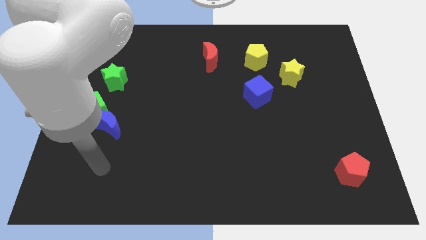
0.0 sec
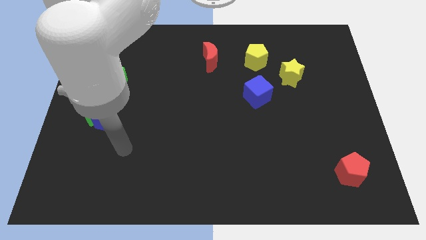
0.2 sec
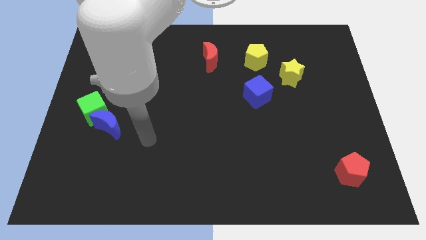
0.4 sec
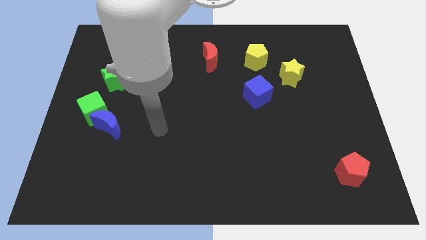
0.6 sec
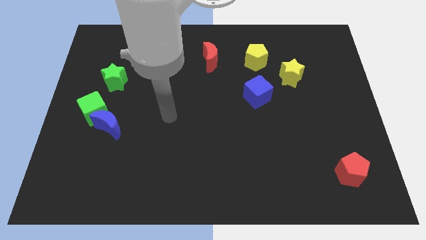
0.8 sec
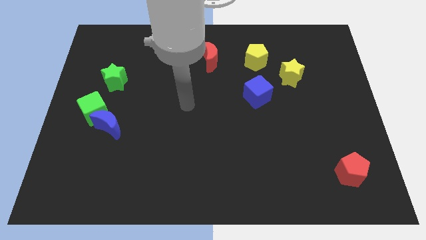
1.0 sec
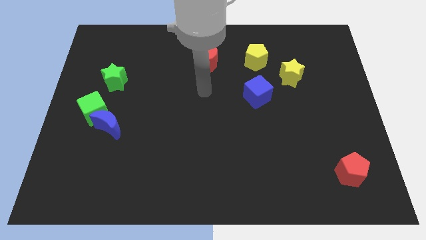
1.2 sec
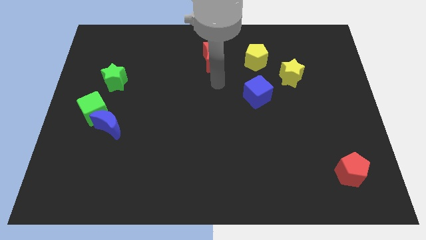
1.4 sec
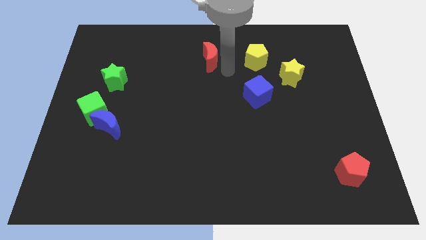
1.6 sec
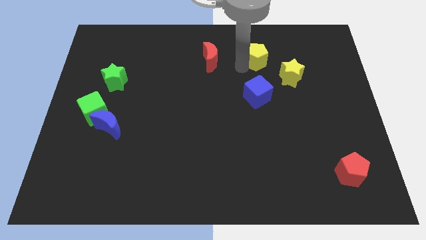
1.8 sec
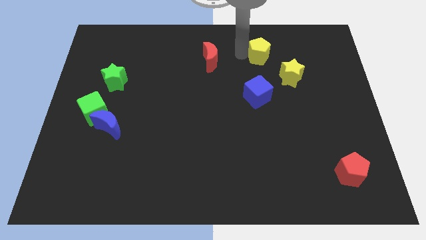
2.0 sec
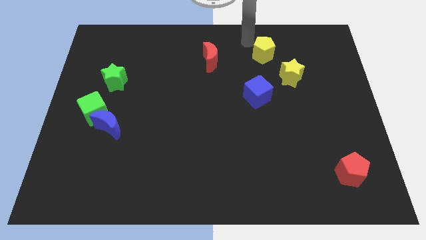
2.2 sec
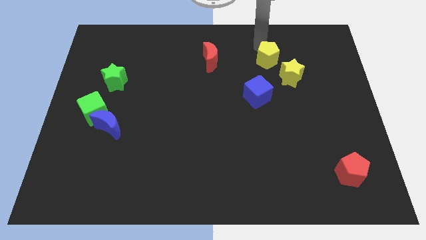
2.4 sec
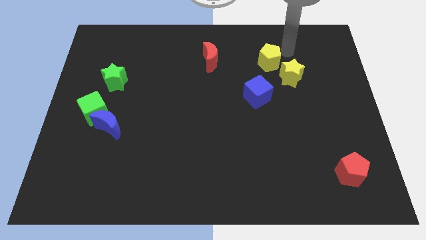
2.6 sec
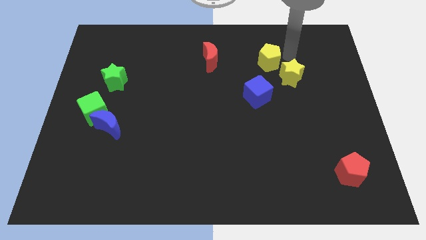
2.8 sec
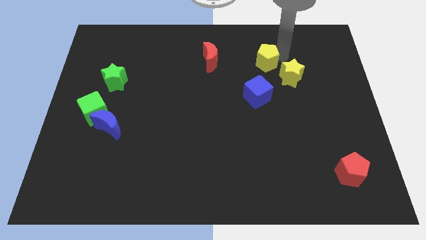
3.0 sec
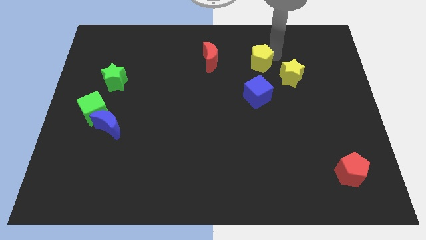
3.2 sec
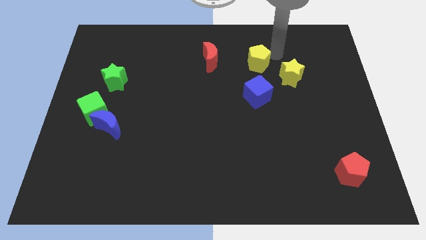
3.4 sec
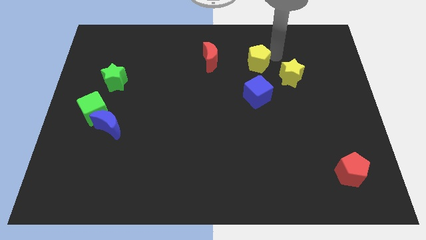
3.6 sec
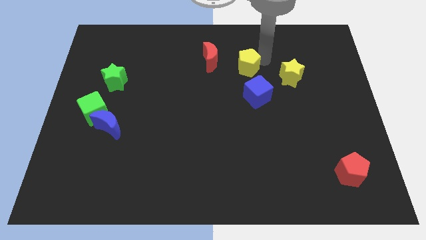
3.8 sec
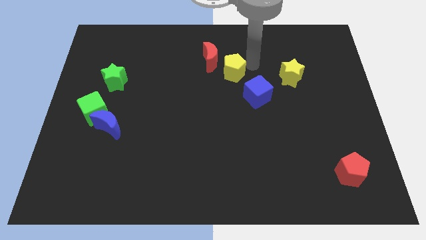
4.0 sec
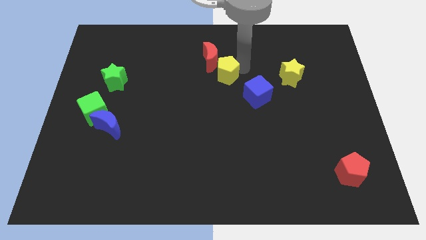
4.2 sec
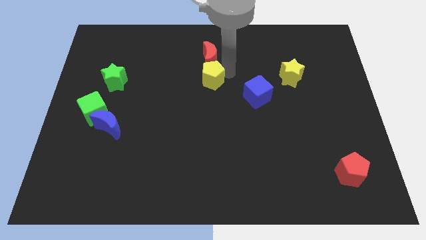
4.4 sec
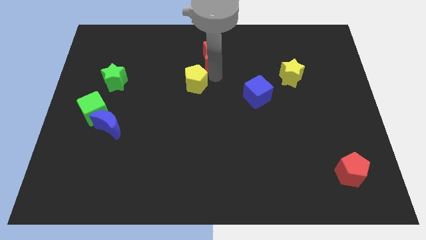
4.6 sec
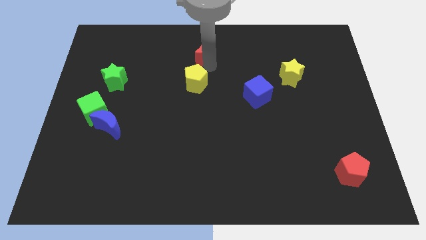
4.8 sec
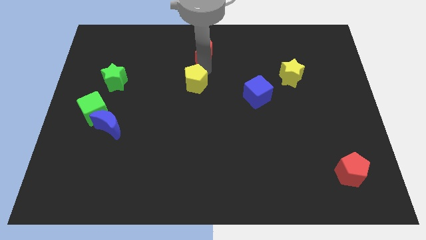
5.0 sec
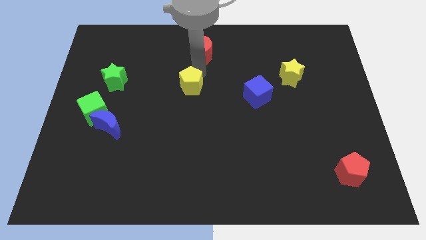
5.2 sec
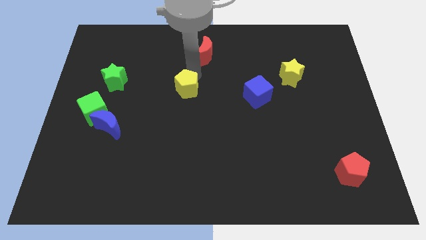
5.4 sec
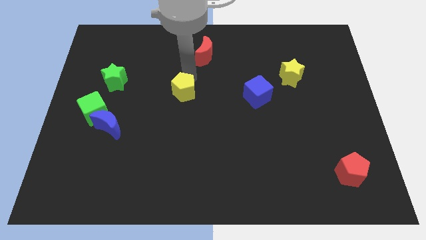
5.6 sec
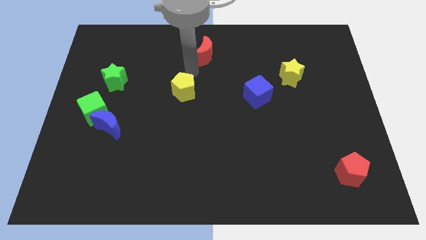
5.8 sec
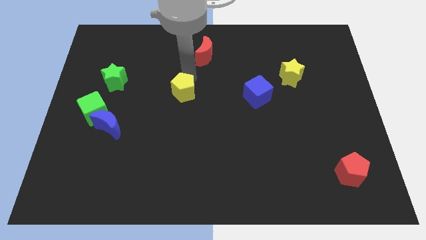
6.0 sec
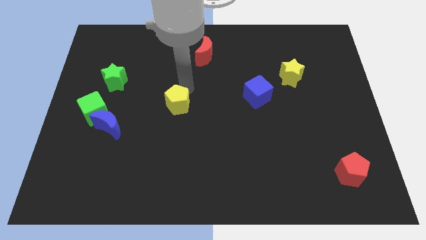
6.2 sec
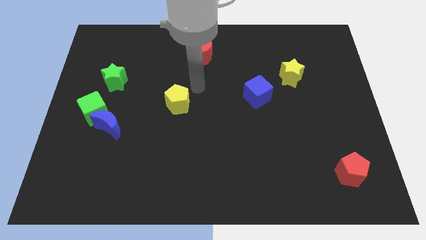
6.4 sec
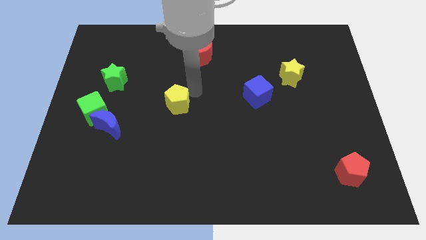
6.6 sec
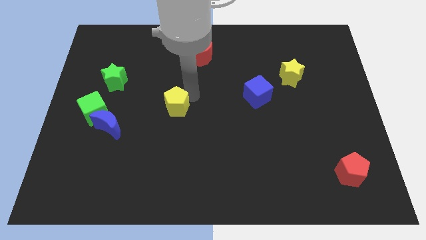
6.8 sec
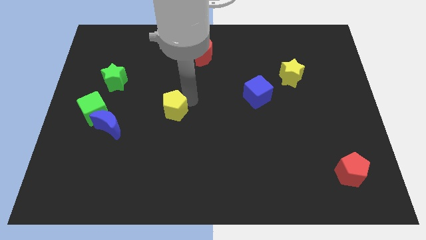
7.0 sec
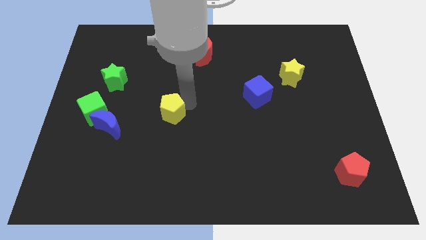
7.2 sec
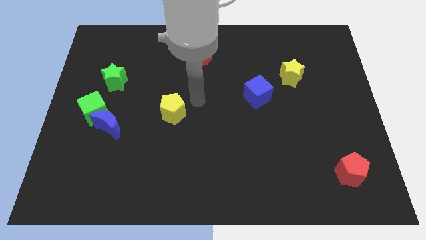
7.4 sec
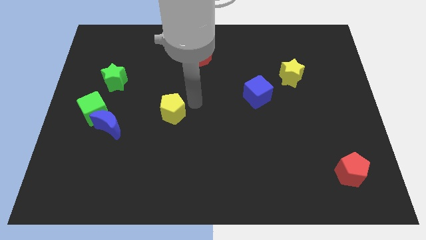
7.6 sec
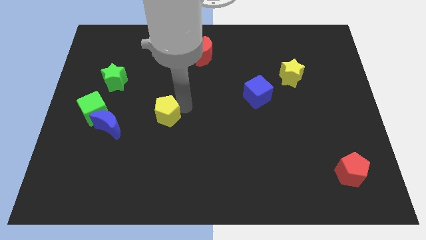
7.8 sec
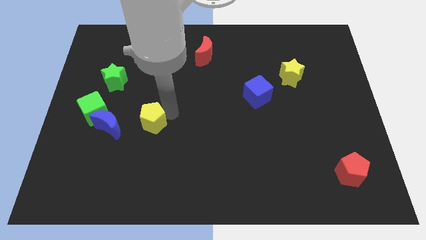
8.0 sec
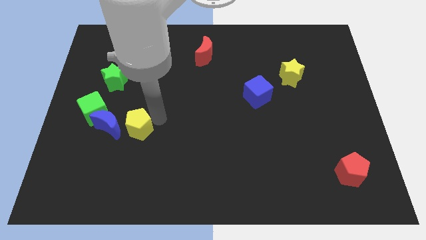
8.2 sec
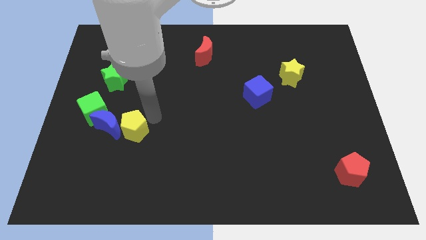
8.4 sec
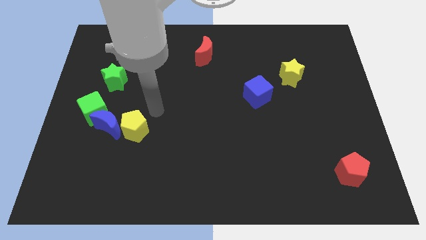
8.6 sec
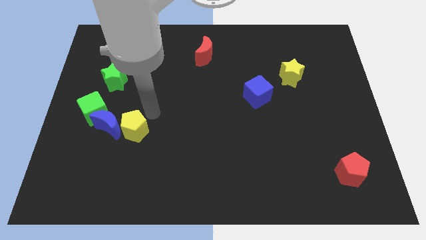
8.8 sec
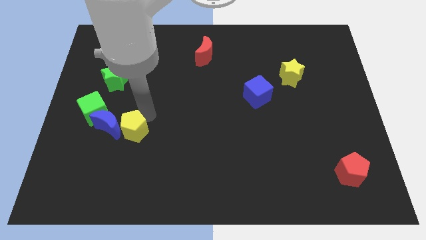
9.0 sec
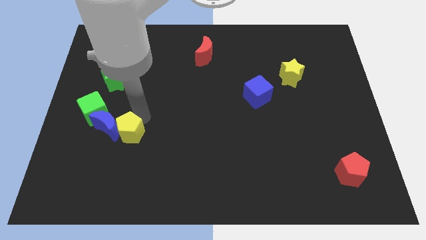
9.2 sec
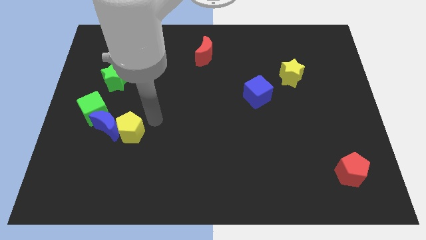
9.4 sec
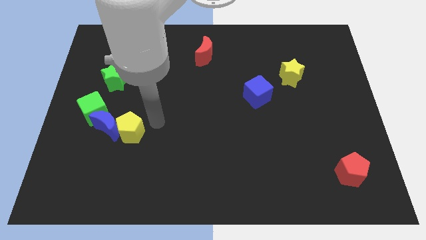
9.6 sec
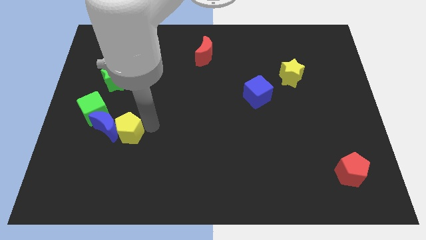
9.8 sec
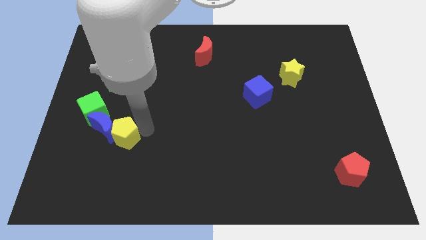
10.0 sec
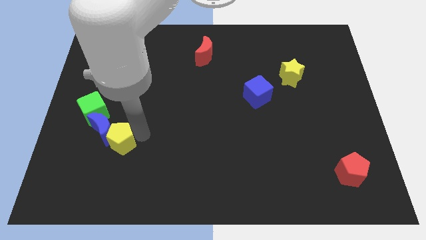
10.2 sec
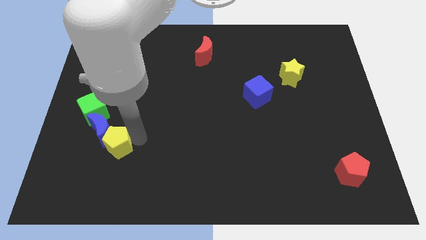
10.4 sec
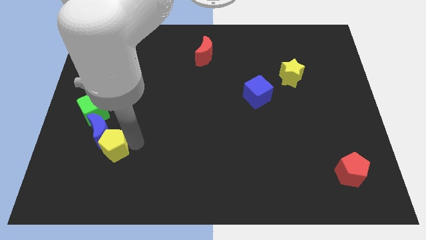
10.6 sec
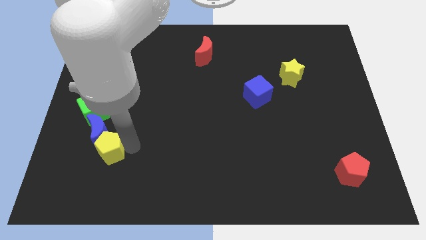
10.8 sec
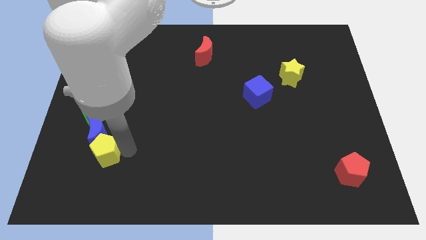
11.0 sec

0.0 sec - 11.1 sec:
put the yellow pentagon to the bottom side of the green cube

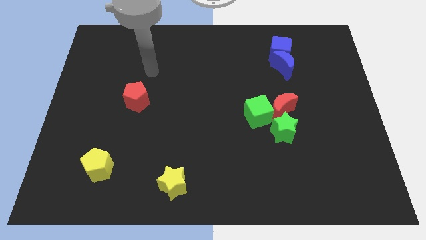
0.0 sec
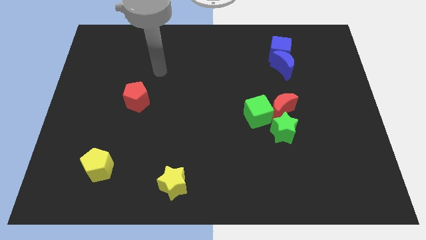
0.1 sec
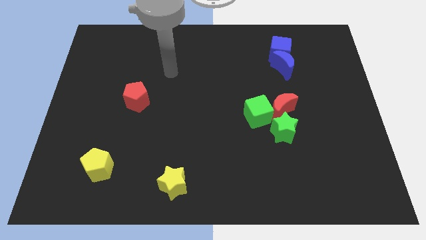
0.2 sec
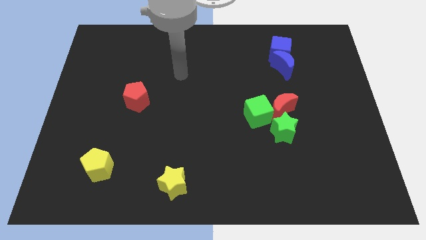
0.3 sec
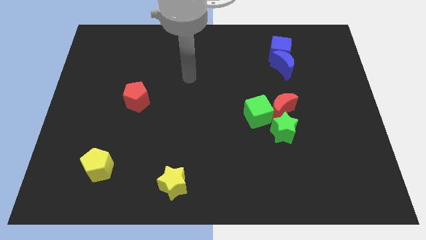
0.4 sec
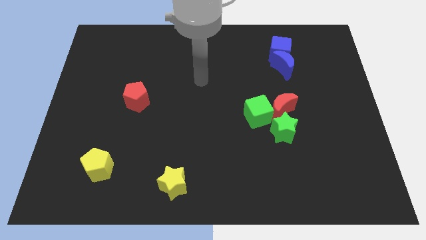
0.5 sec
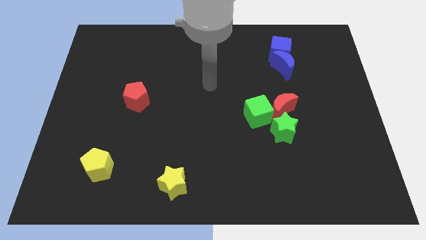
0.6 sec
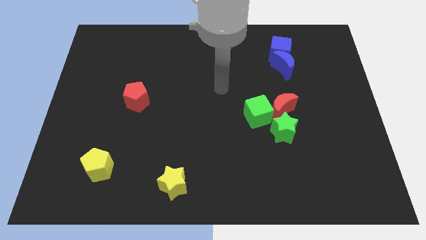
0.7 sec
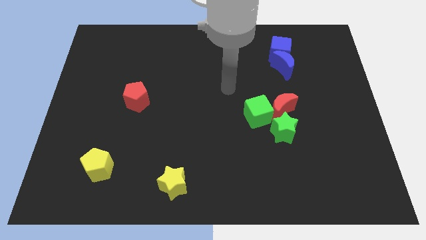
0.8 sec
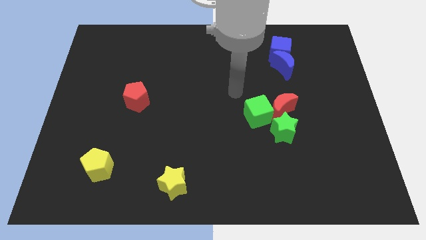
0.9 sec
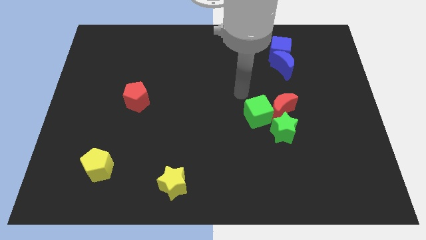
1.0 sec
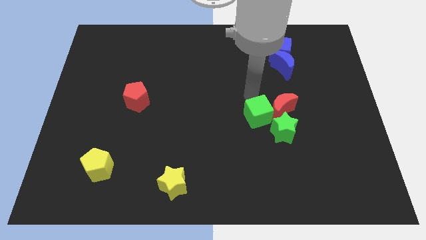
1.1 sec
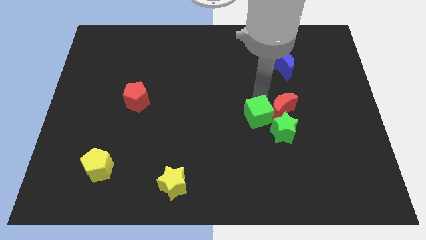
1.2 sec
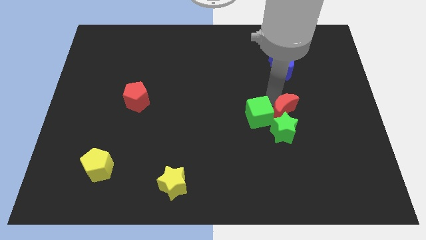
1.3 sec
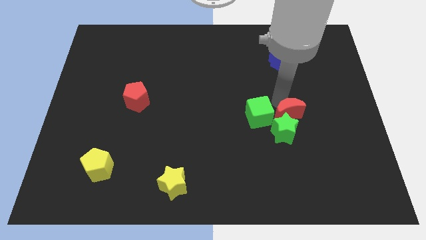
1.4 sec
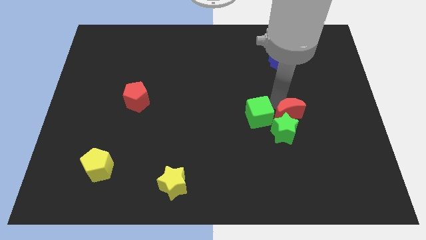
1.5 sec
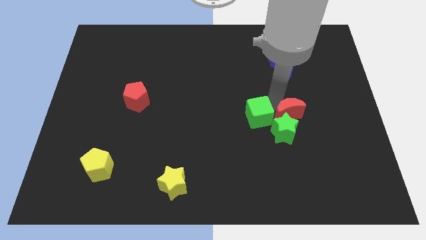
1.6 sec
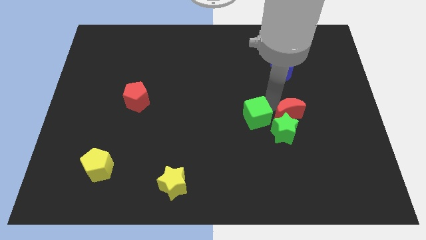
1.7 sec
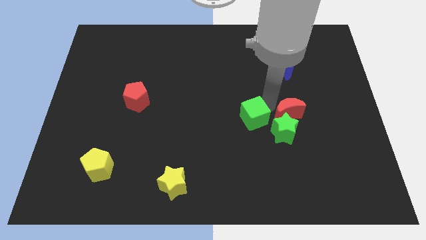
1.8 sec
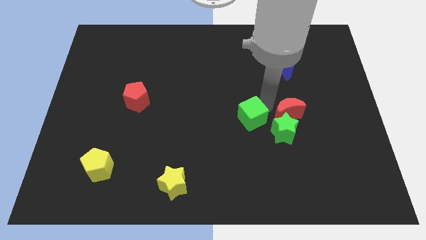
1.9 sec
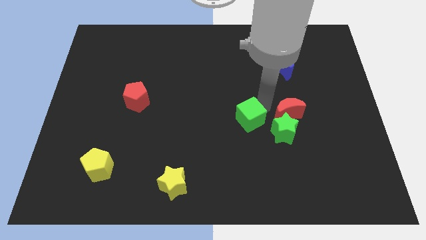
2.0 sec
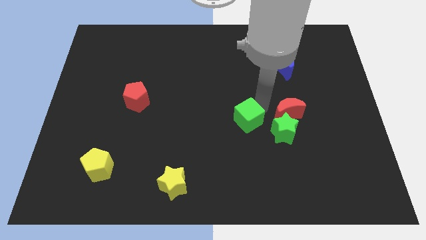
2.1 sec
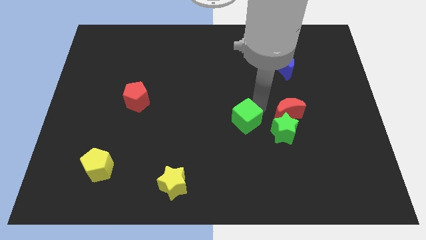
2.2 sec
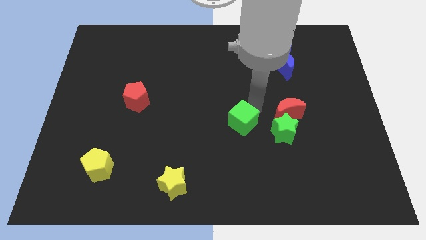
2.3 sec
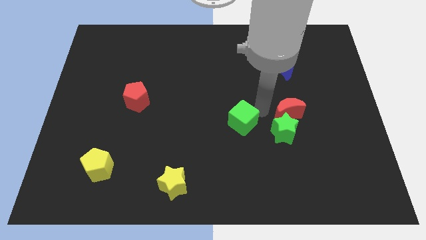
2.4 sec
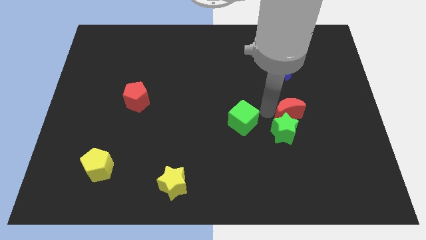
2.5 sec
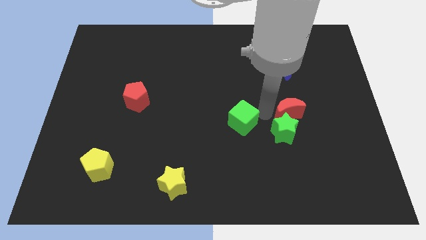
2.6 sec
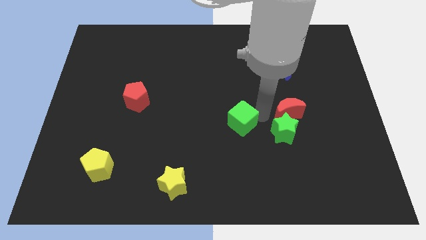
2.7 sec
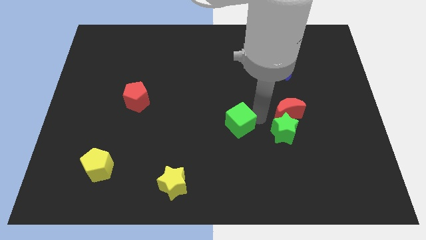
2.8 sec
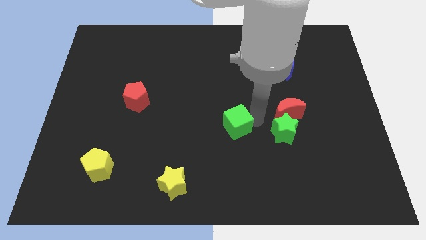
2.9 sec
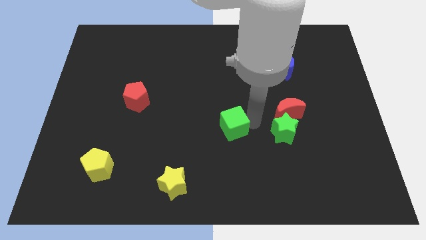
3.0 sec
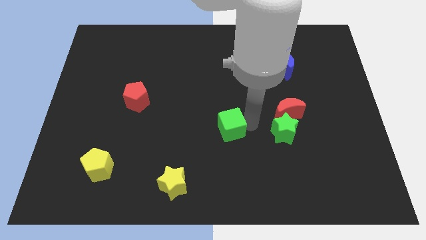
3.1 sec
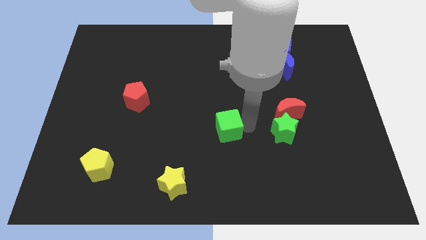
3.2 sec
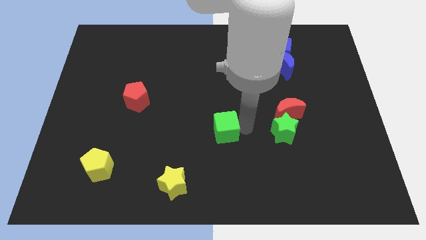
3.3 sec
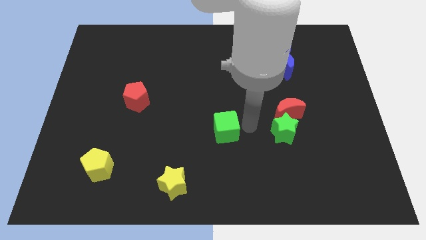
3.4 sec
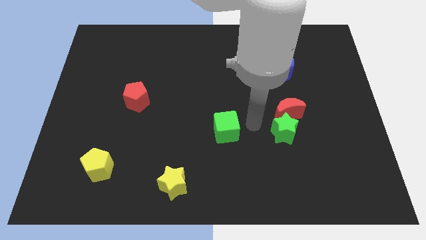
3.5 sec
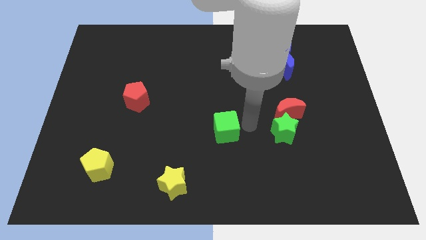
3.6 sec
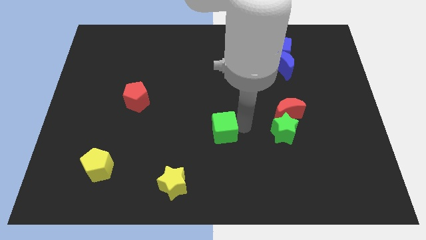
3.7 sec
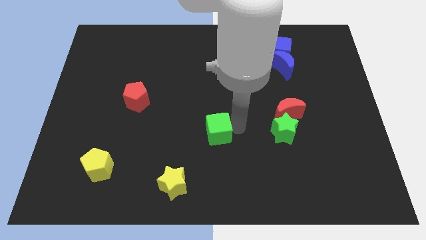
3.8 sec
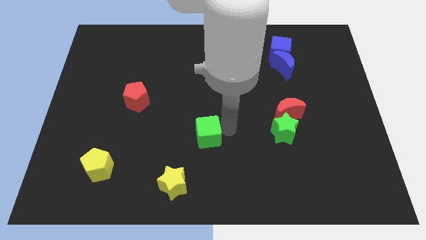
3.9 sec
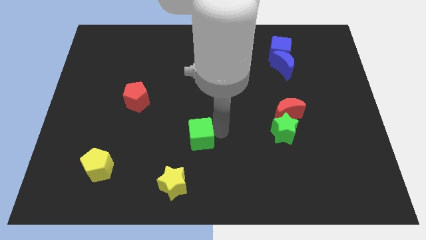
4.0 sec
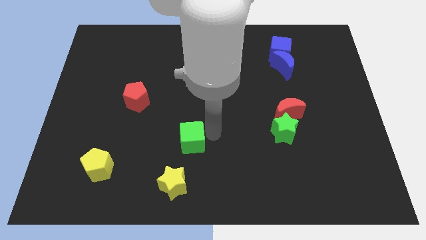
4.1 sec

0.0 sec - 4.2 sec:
move the green cube above the yellow star
